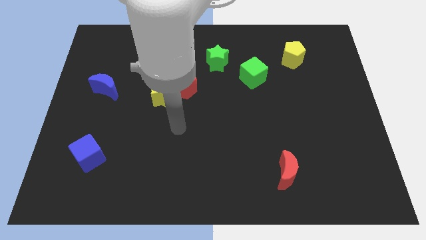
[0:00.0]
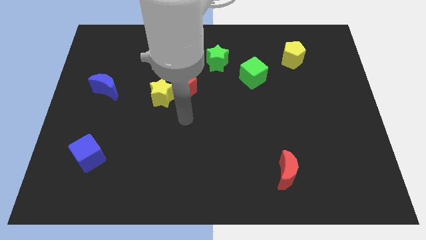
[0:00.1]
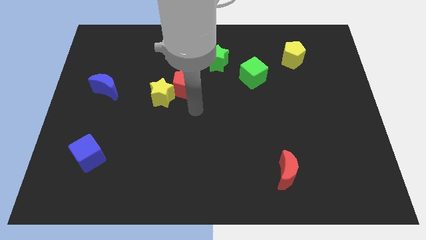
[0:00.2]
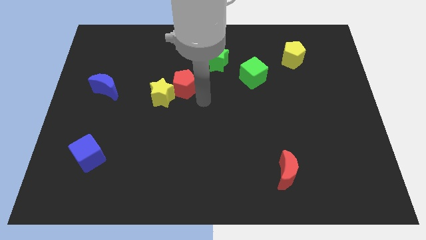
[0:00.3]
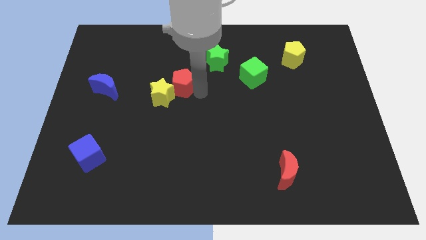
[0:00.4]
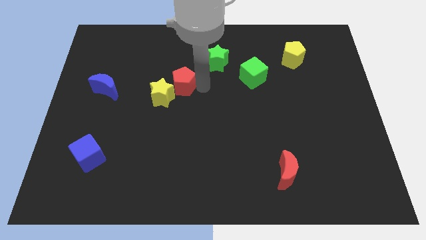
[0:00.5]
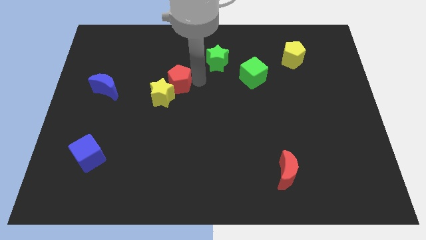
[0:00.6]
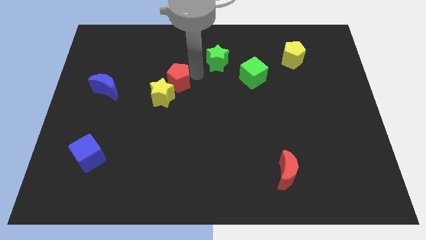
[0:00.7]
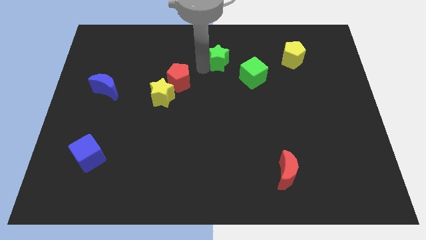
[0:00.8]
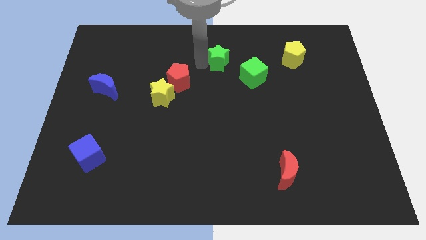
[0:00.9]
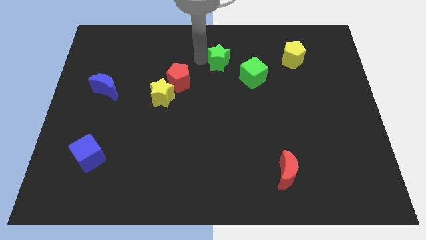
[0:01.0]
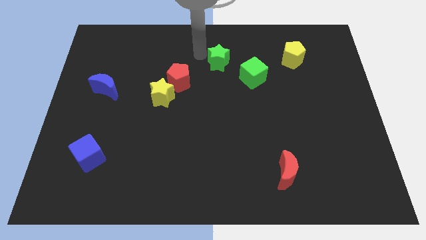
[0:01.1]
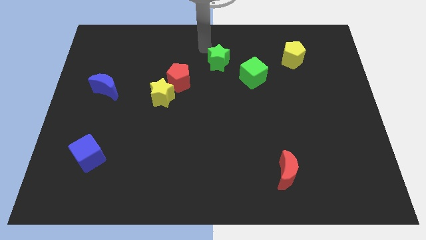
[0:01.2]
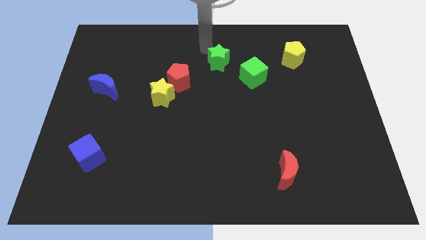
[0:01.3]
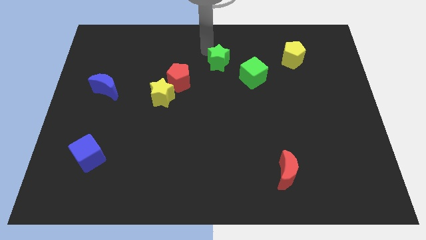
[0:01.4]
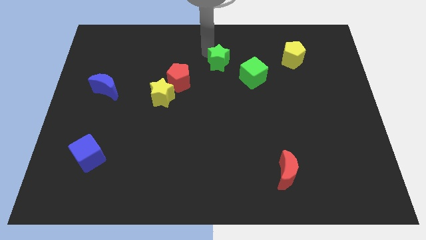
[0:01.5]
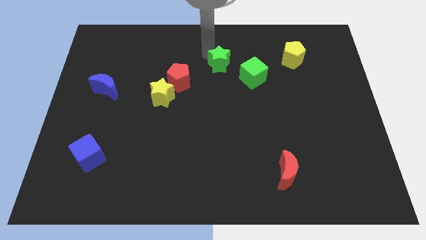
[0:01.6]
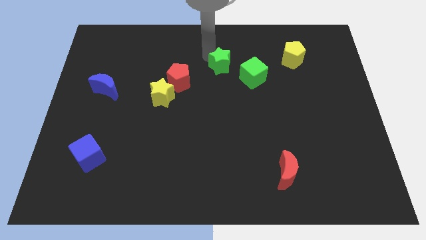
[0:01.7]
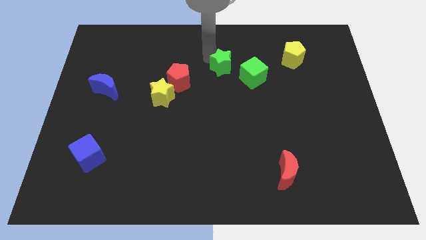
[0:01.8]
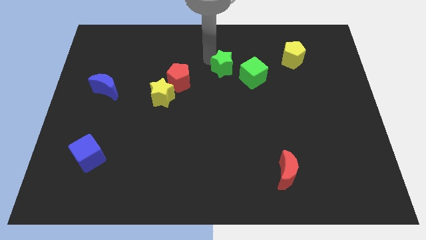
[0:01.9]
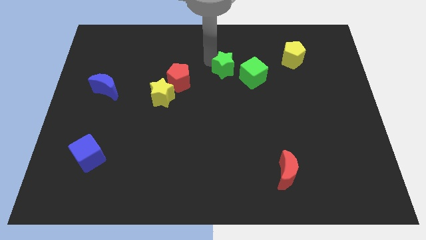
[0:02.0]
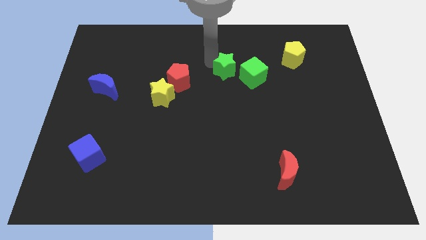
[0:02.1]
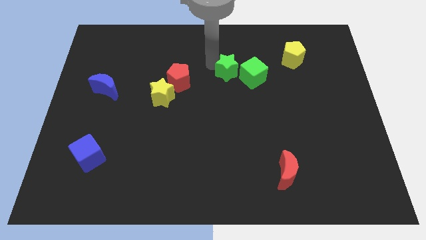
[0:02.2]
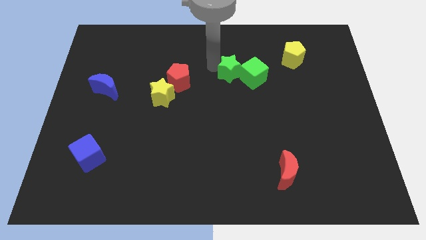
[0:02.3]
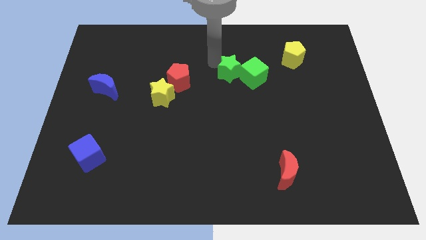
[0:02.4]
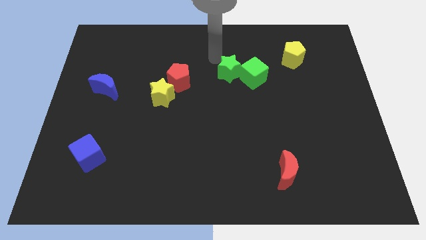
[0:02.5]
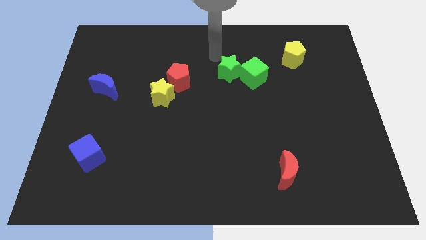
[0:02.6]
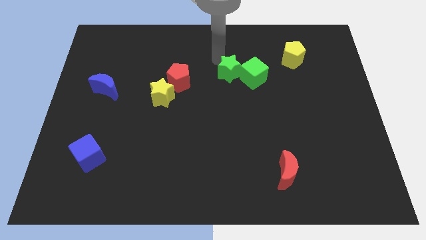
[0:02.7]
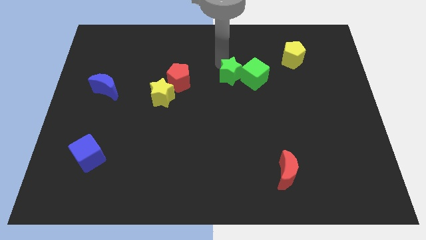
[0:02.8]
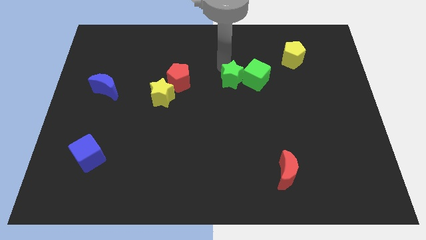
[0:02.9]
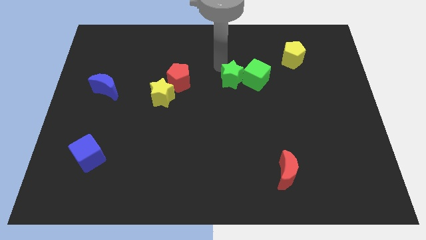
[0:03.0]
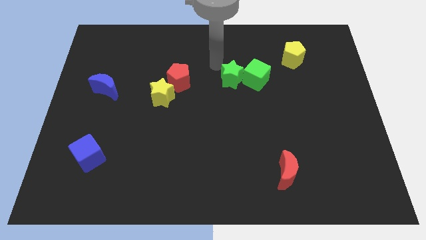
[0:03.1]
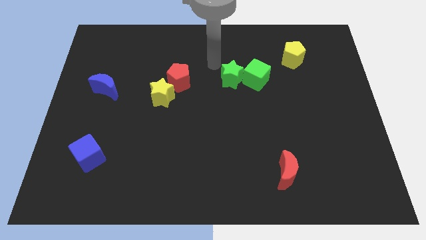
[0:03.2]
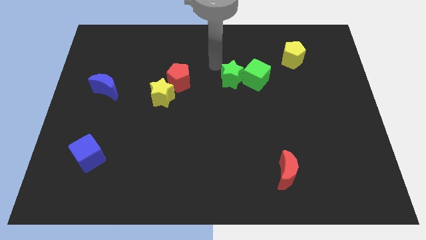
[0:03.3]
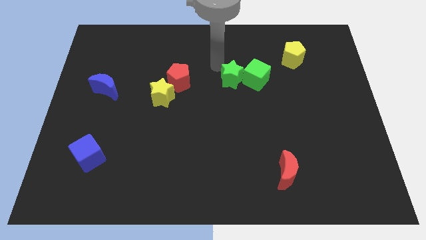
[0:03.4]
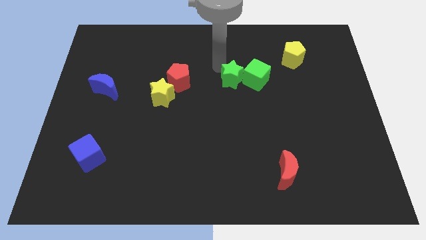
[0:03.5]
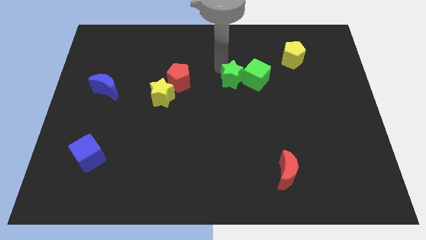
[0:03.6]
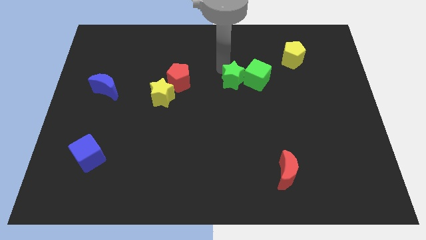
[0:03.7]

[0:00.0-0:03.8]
slightly slide the green star diagonally down and right

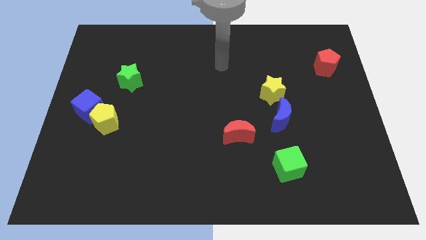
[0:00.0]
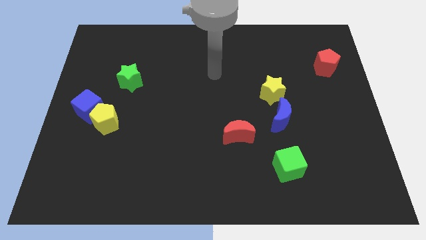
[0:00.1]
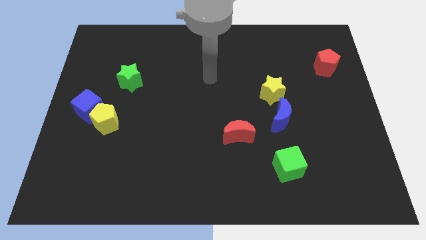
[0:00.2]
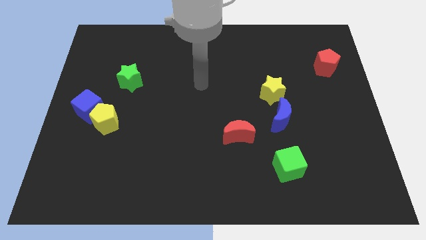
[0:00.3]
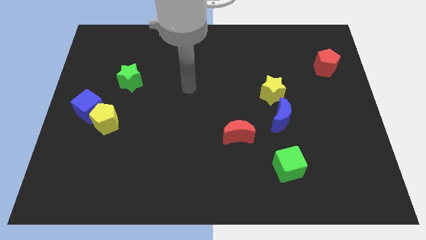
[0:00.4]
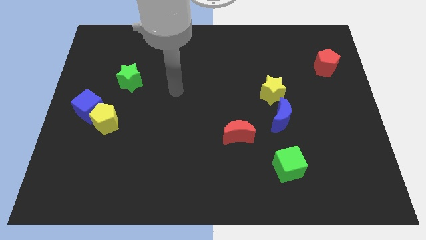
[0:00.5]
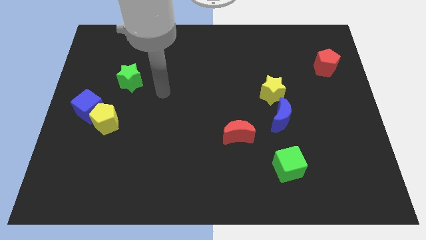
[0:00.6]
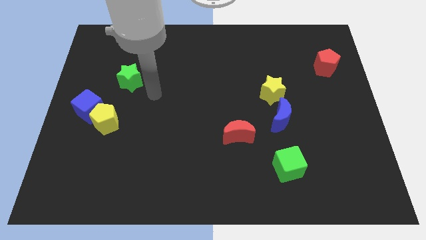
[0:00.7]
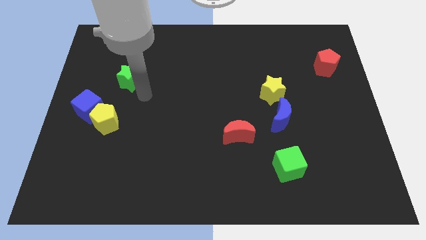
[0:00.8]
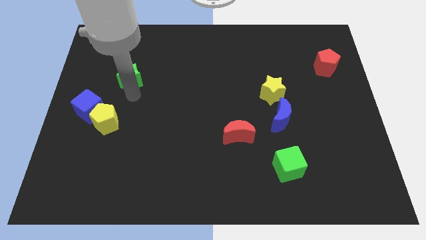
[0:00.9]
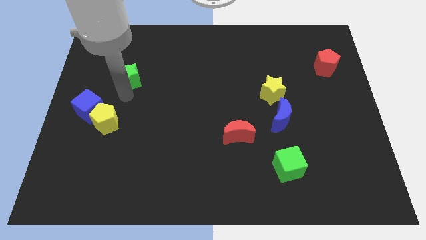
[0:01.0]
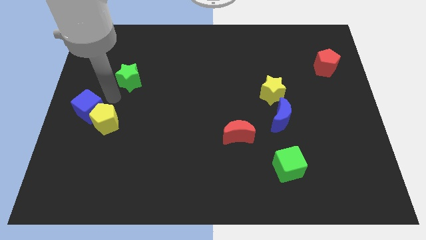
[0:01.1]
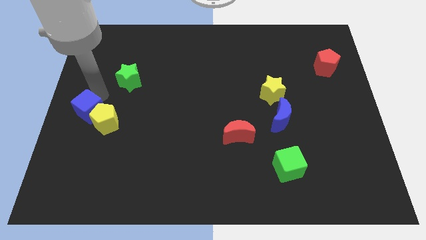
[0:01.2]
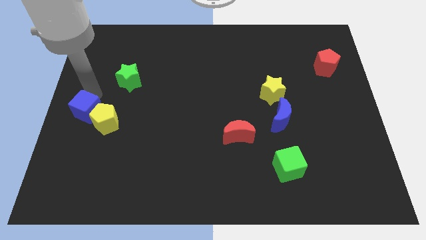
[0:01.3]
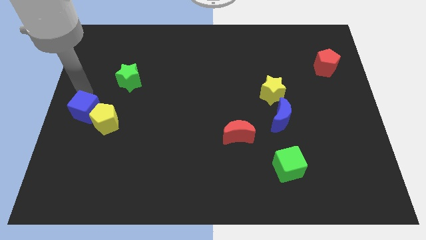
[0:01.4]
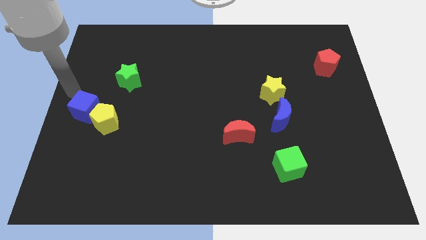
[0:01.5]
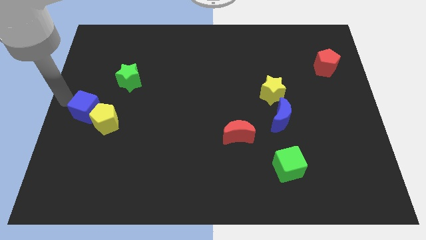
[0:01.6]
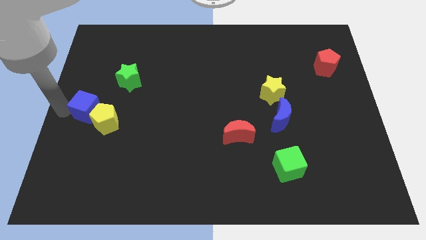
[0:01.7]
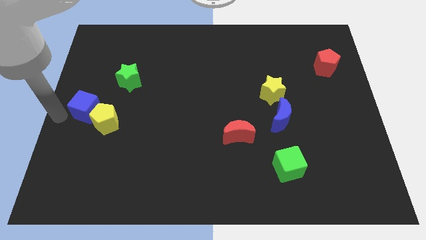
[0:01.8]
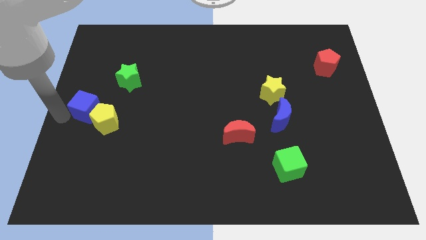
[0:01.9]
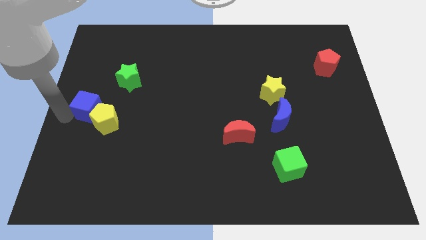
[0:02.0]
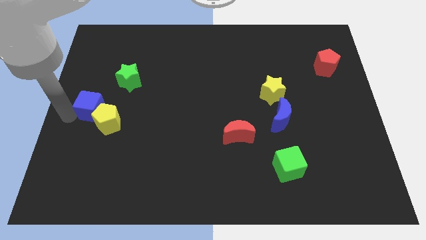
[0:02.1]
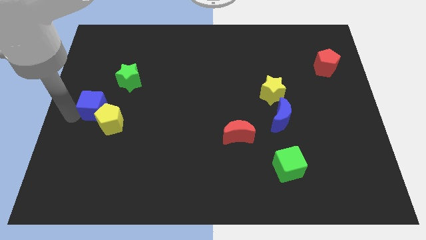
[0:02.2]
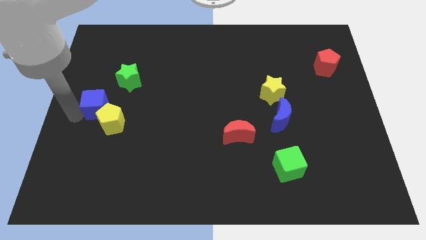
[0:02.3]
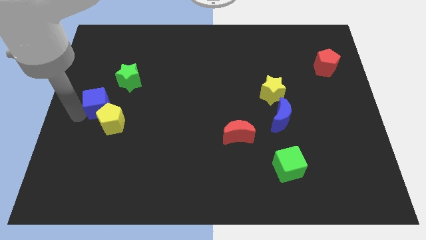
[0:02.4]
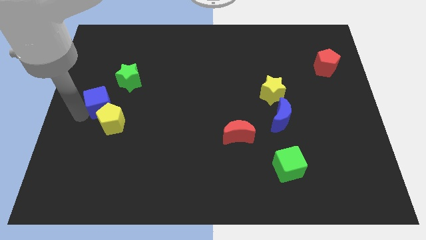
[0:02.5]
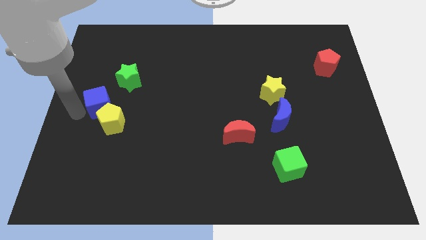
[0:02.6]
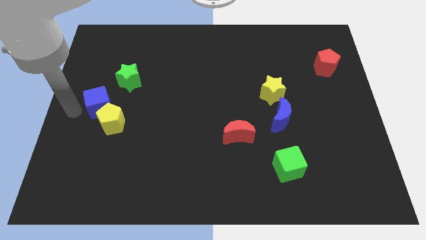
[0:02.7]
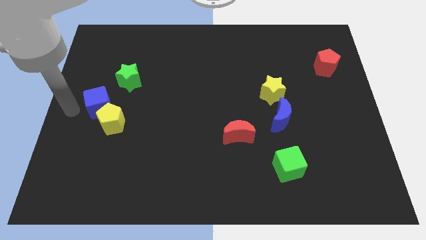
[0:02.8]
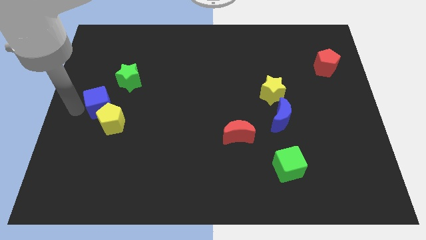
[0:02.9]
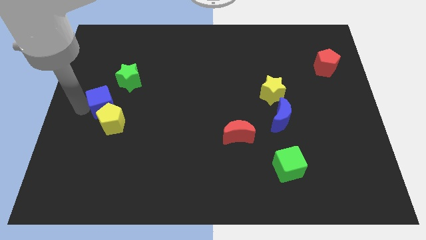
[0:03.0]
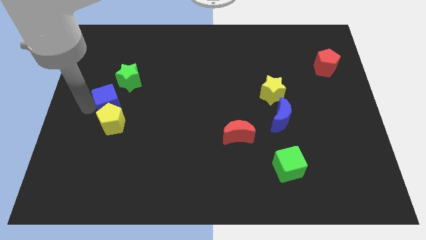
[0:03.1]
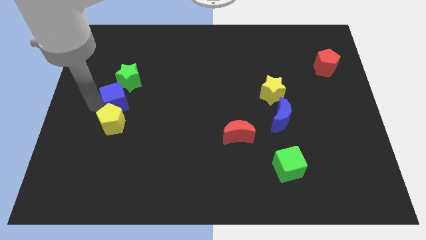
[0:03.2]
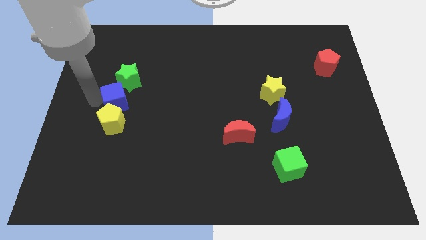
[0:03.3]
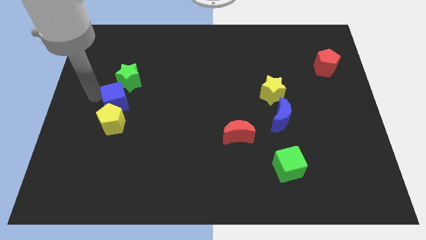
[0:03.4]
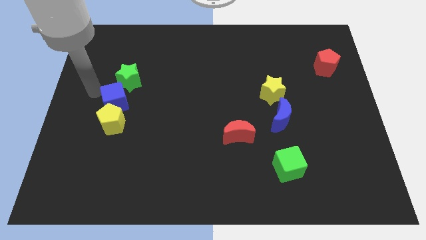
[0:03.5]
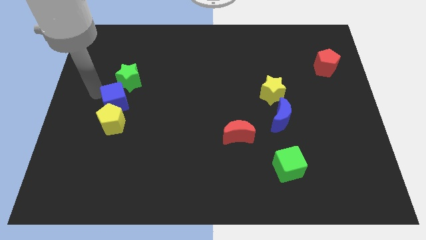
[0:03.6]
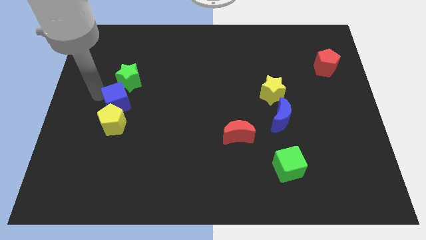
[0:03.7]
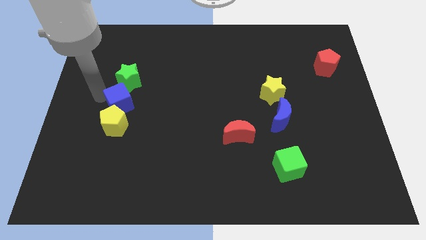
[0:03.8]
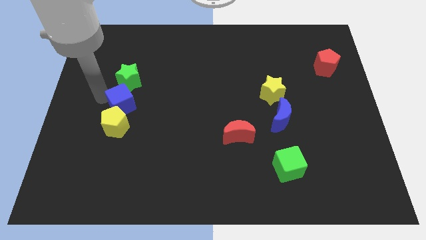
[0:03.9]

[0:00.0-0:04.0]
slightly slide the blue cube to the right

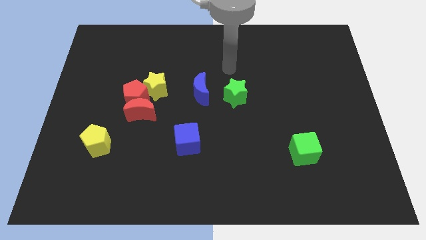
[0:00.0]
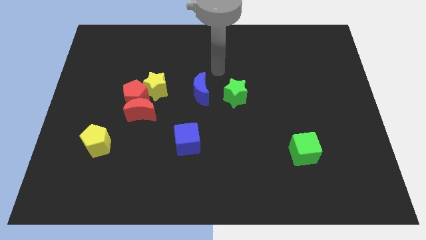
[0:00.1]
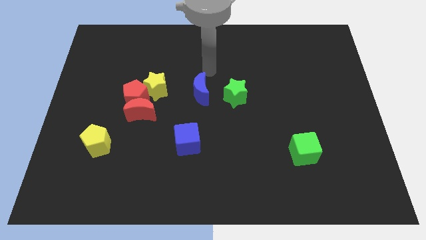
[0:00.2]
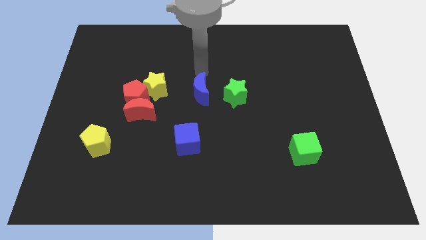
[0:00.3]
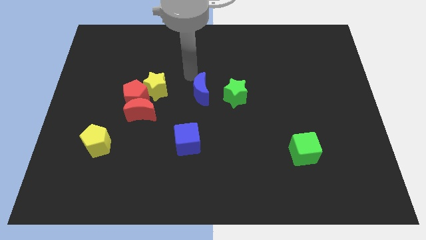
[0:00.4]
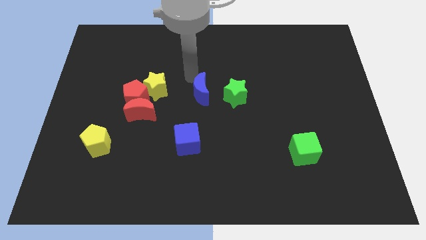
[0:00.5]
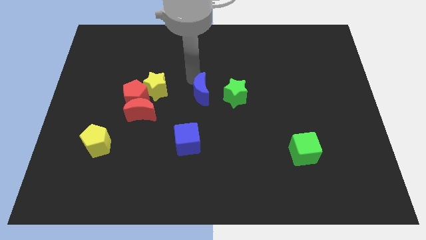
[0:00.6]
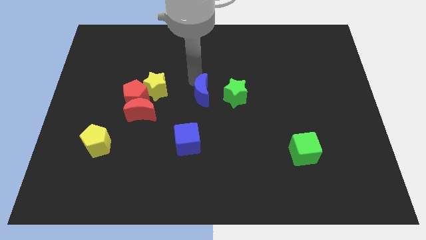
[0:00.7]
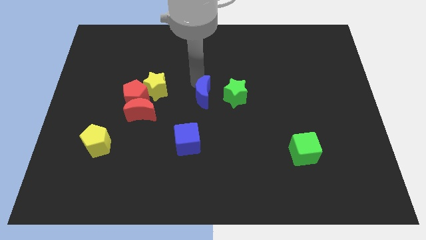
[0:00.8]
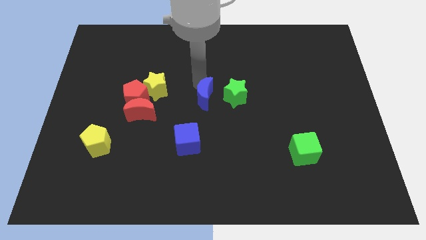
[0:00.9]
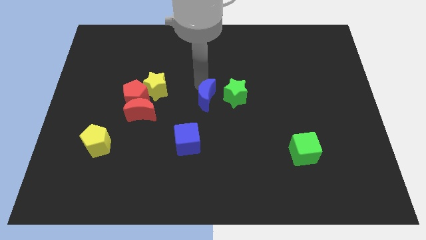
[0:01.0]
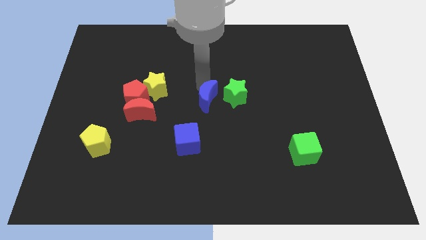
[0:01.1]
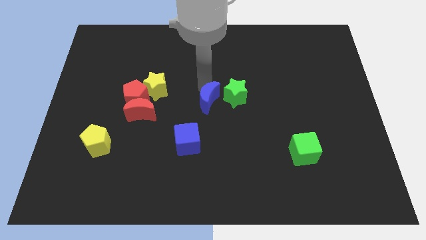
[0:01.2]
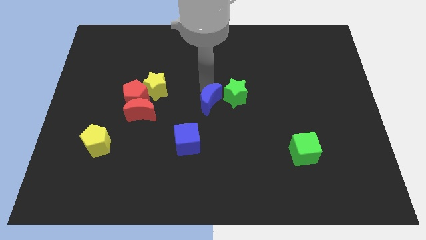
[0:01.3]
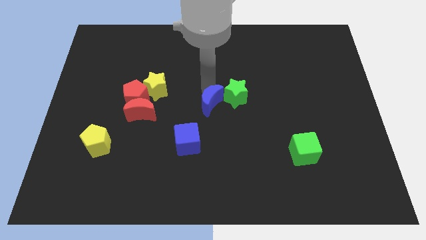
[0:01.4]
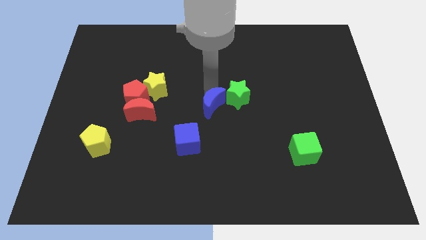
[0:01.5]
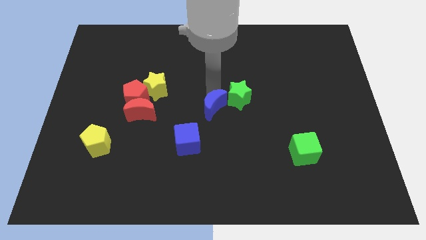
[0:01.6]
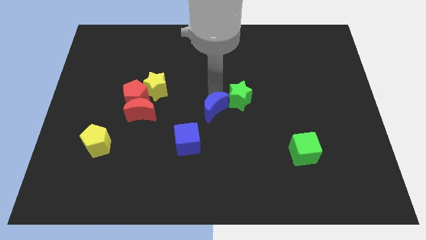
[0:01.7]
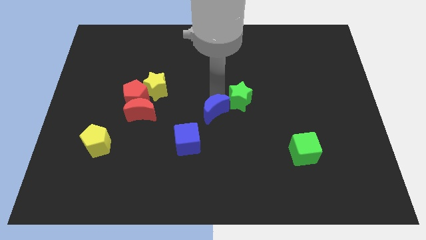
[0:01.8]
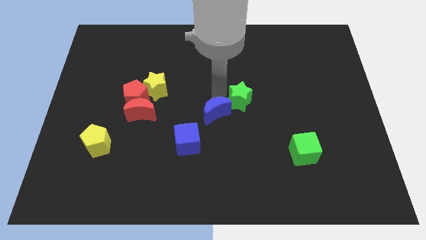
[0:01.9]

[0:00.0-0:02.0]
slide the blue moon a little bit downwards and then right
